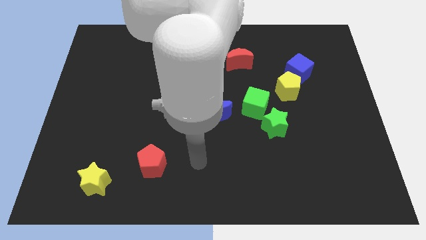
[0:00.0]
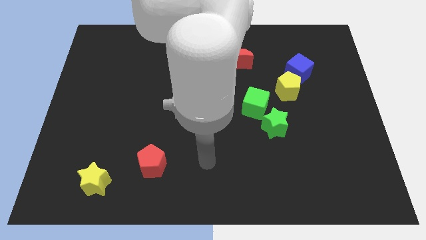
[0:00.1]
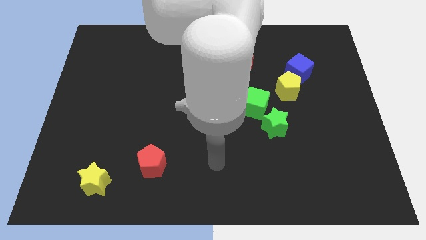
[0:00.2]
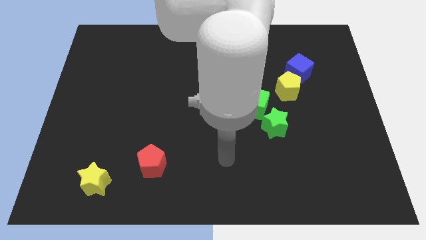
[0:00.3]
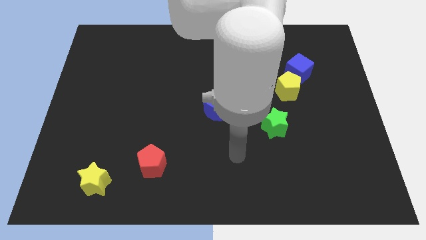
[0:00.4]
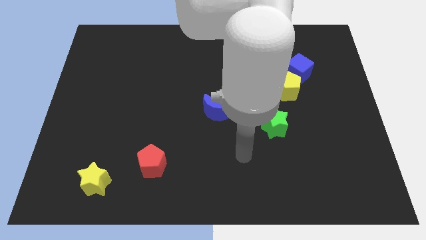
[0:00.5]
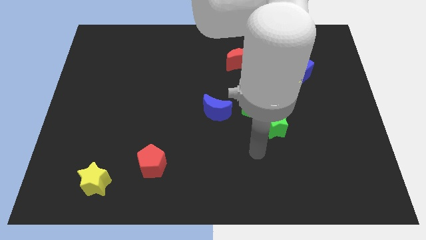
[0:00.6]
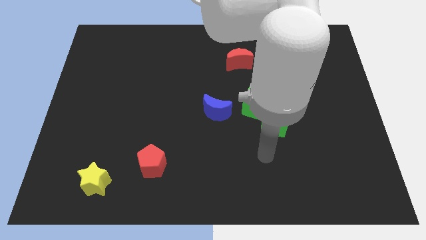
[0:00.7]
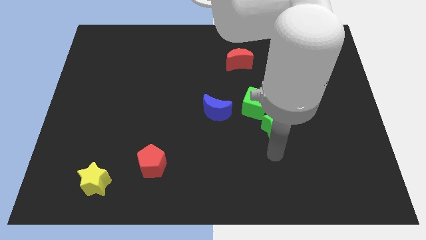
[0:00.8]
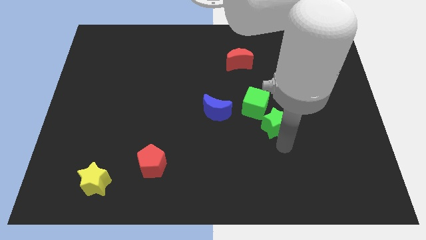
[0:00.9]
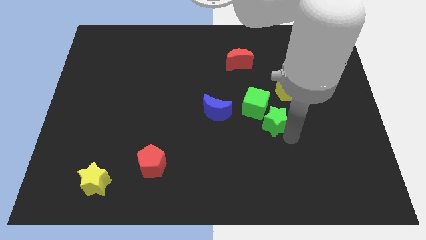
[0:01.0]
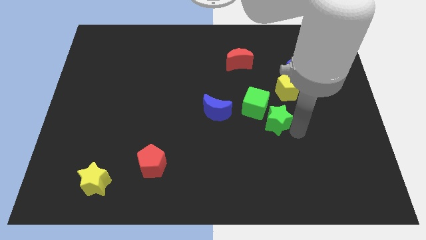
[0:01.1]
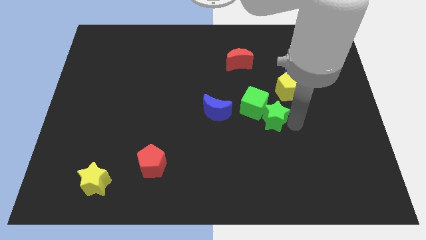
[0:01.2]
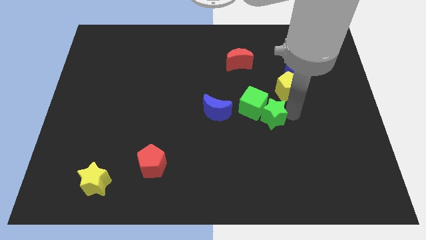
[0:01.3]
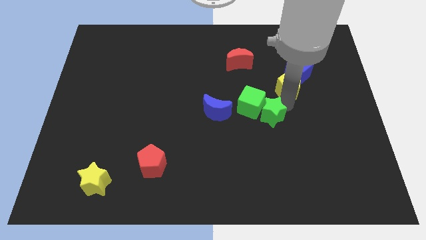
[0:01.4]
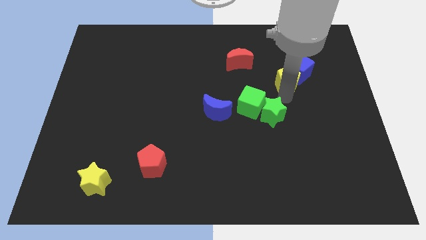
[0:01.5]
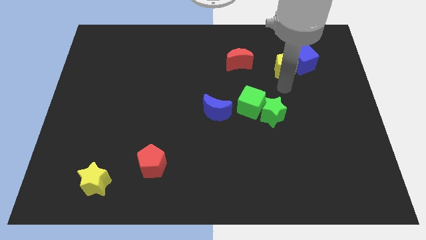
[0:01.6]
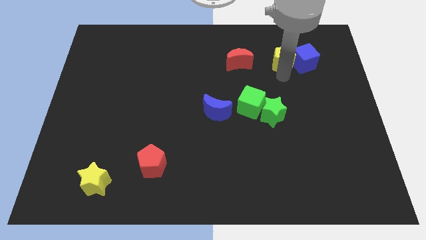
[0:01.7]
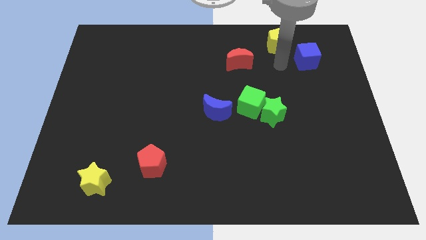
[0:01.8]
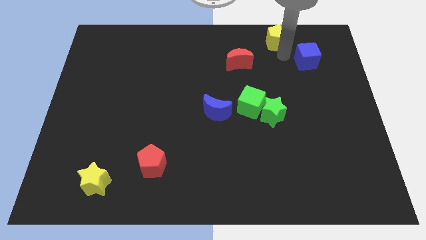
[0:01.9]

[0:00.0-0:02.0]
separate the blue cube from the yellow pentagon

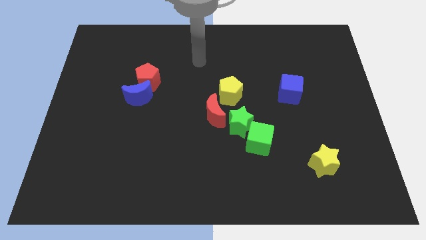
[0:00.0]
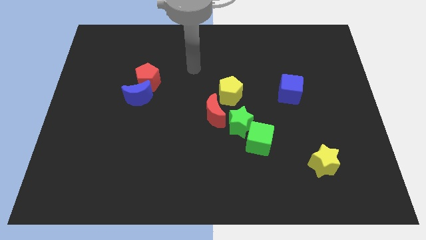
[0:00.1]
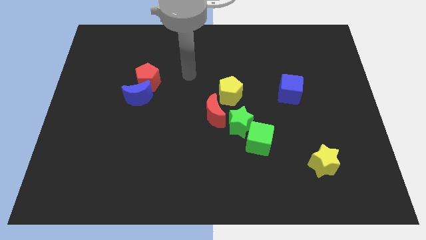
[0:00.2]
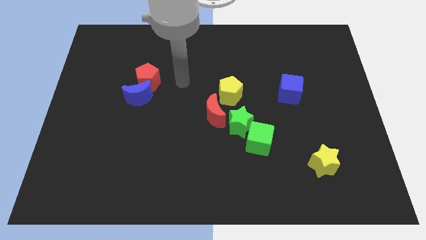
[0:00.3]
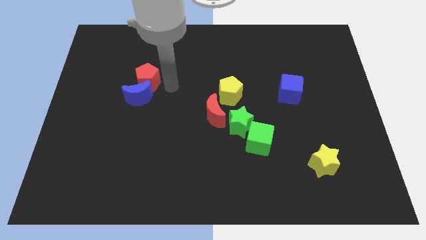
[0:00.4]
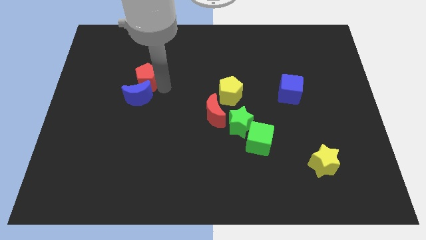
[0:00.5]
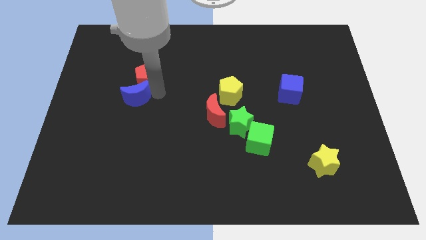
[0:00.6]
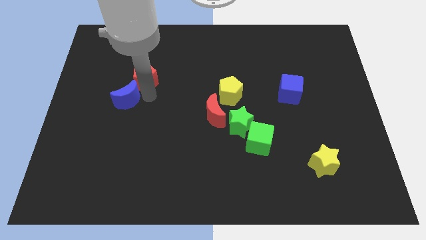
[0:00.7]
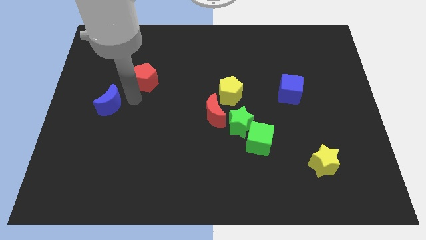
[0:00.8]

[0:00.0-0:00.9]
move the red pentagon away from the blue moon

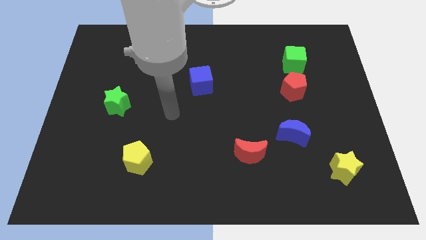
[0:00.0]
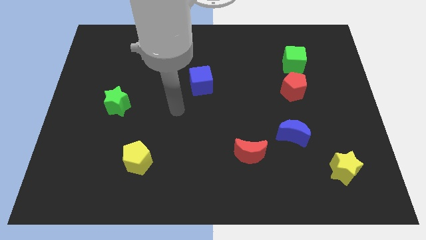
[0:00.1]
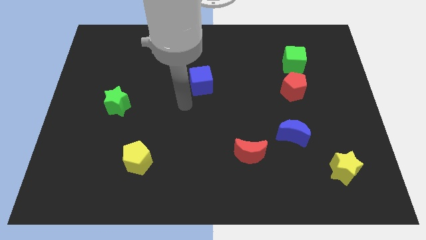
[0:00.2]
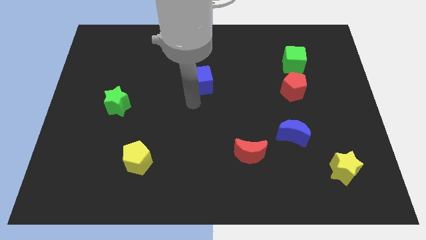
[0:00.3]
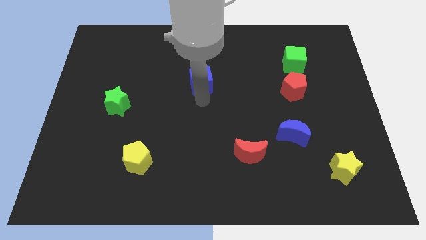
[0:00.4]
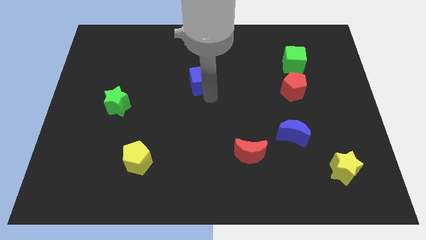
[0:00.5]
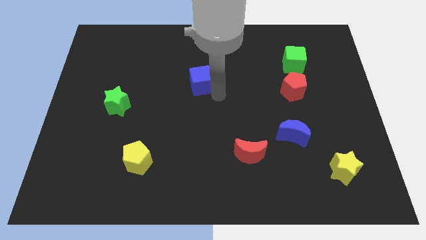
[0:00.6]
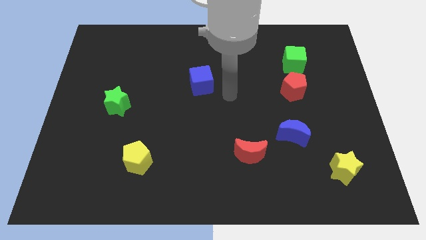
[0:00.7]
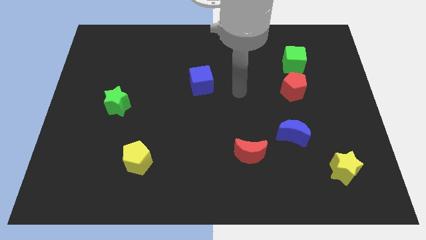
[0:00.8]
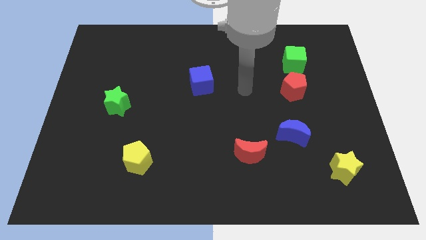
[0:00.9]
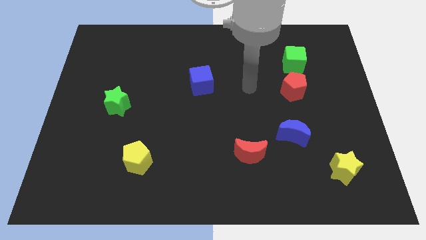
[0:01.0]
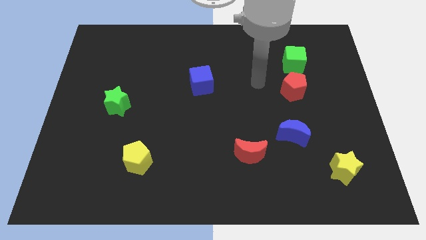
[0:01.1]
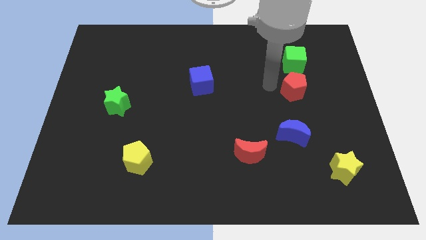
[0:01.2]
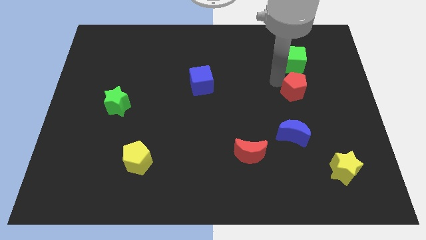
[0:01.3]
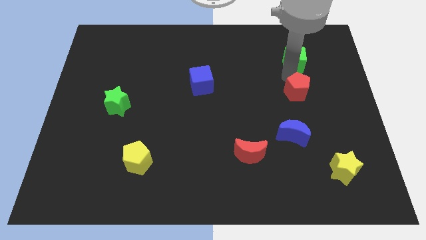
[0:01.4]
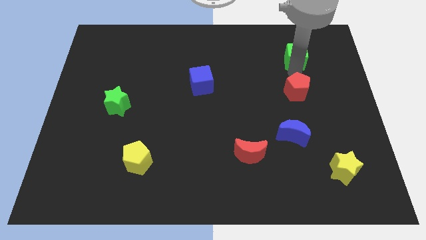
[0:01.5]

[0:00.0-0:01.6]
pull the red pentagon apart from the green cube

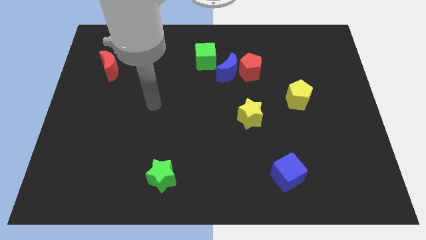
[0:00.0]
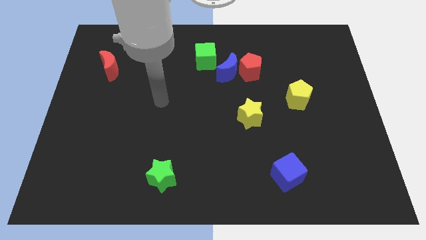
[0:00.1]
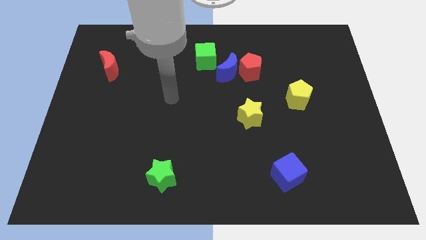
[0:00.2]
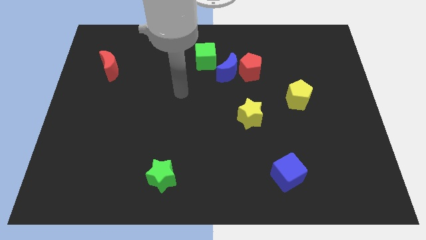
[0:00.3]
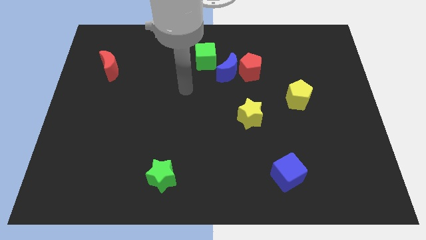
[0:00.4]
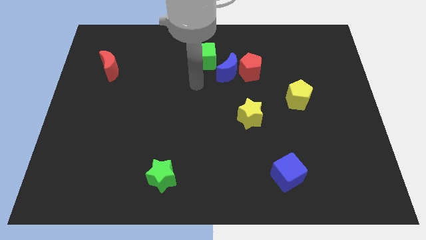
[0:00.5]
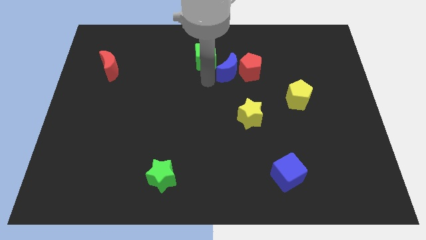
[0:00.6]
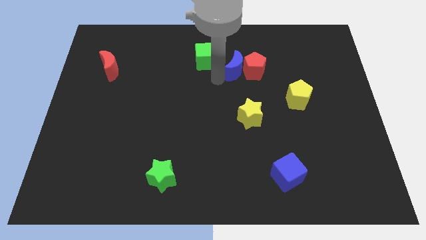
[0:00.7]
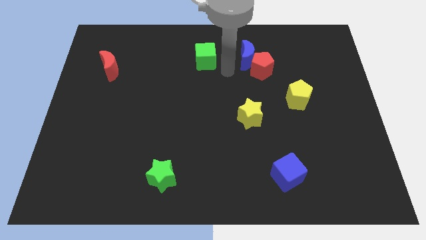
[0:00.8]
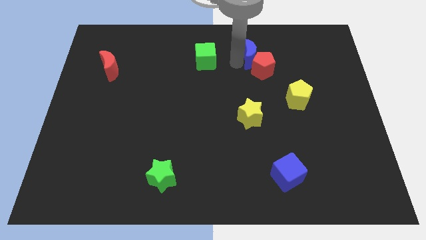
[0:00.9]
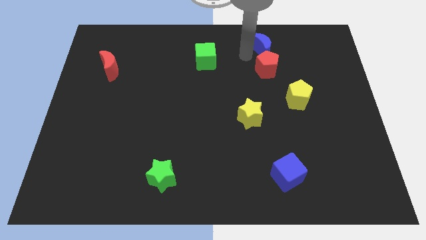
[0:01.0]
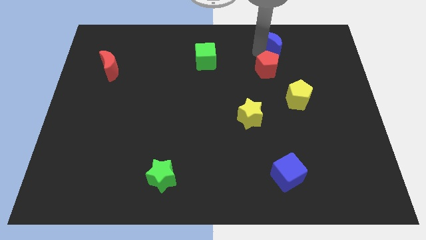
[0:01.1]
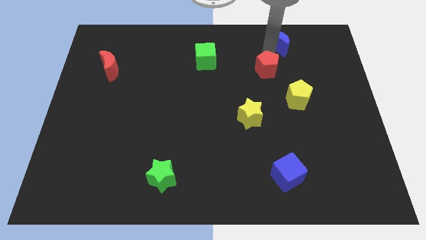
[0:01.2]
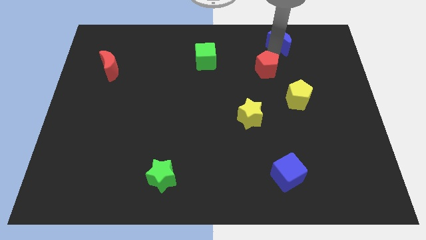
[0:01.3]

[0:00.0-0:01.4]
pull the red pentagon apart from the blue moon

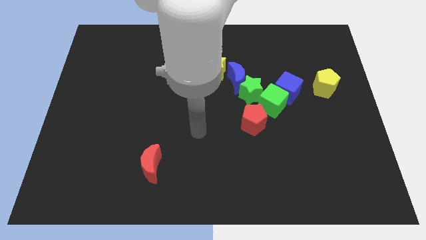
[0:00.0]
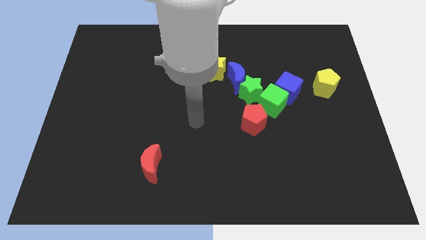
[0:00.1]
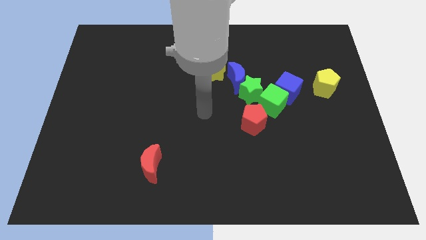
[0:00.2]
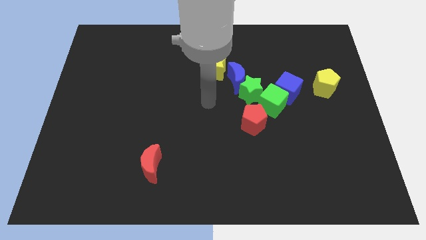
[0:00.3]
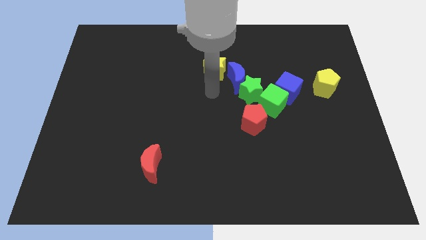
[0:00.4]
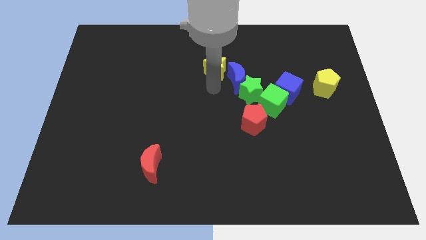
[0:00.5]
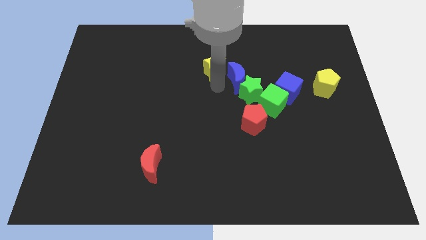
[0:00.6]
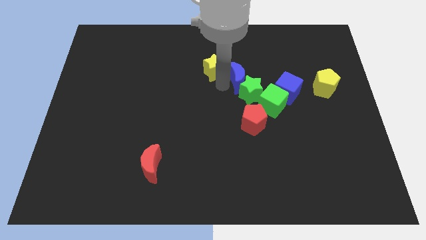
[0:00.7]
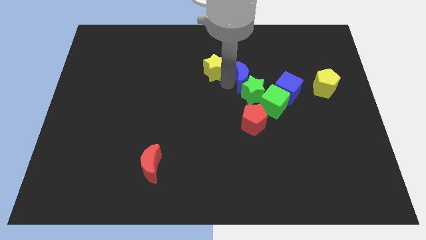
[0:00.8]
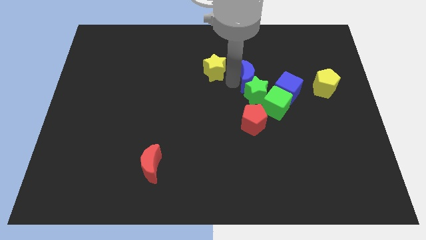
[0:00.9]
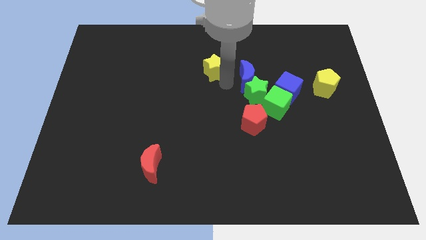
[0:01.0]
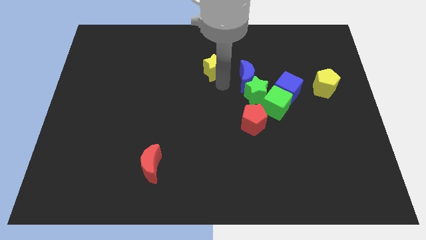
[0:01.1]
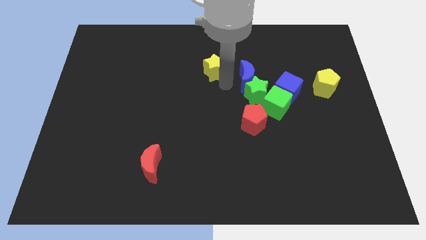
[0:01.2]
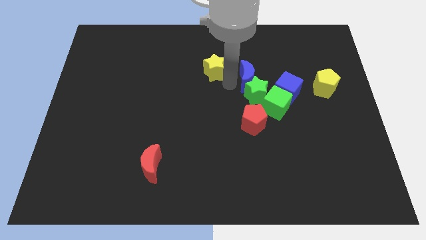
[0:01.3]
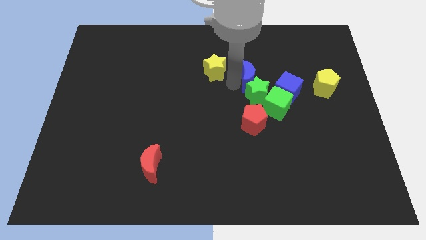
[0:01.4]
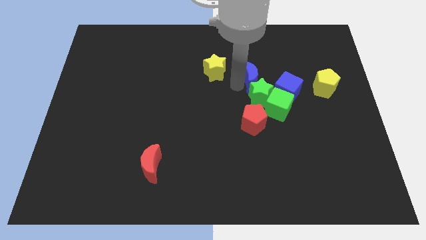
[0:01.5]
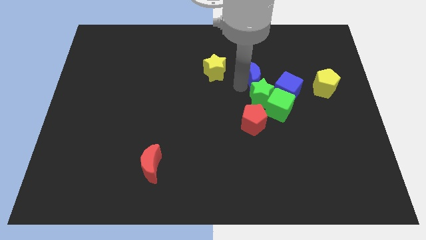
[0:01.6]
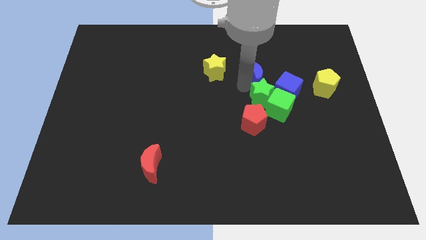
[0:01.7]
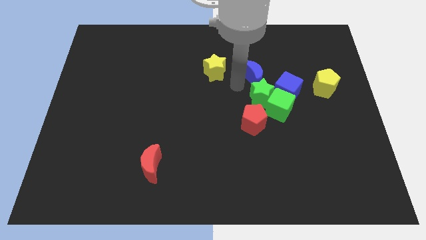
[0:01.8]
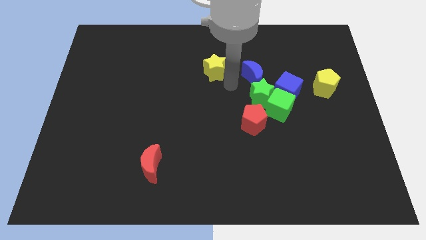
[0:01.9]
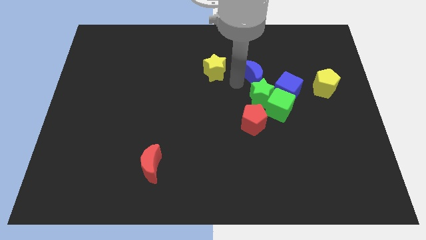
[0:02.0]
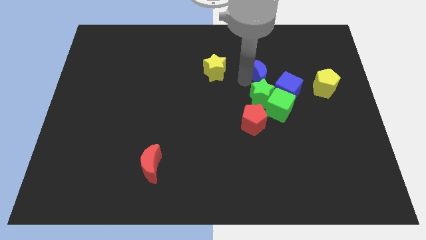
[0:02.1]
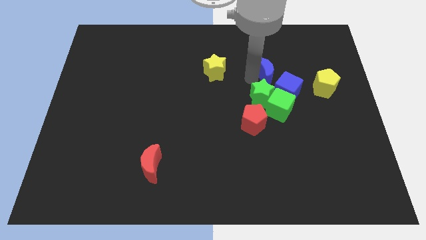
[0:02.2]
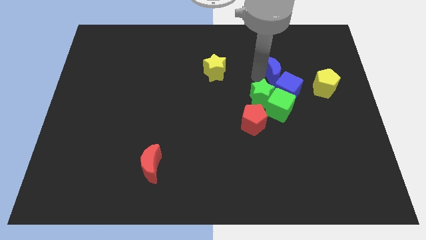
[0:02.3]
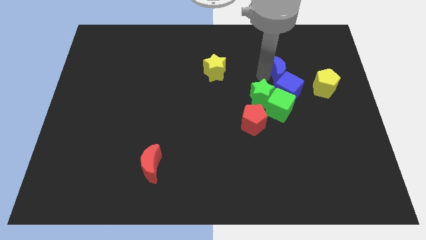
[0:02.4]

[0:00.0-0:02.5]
separate the blue moon from the green star and yellow star

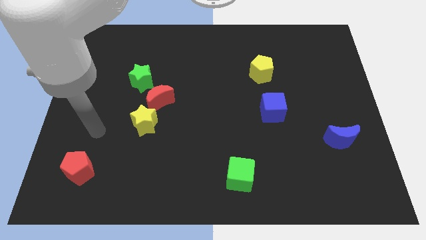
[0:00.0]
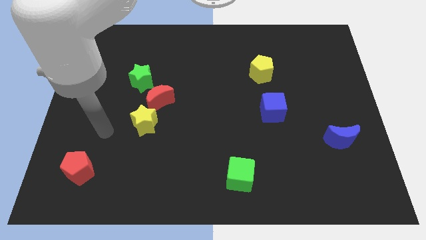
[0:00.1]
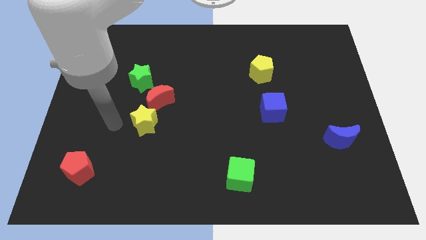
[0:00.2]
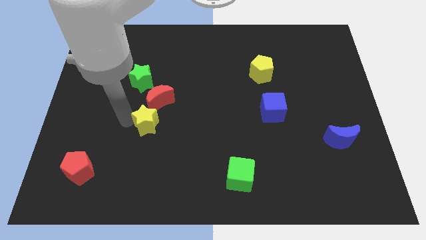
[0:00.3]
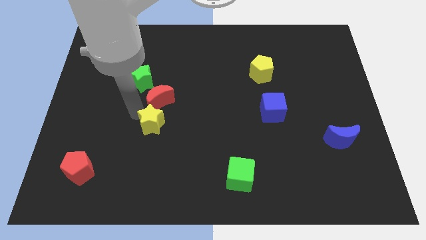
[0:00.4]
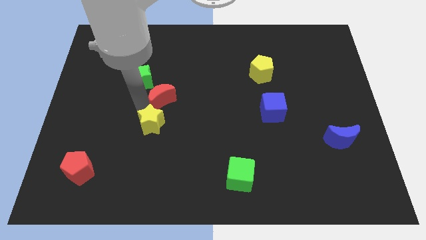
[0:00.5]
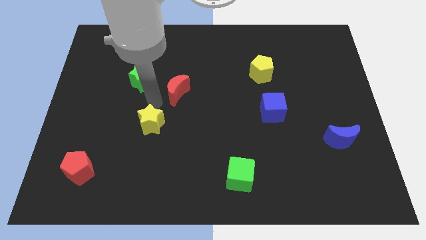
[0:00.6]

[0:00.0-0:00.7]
move the yellow star away from the red moon

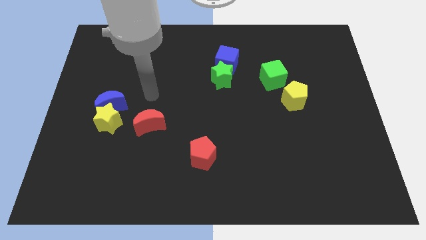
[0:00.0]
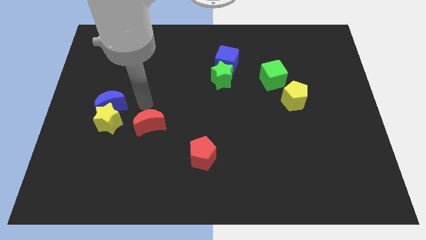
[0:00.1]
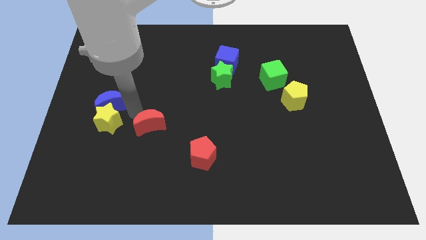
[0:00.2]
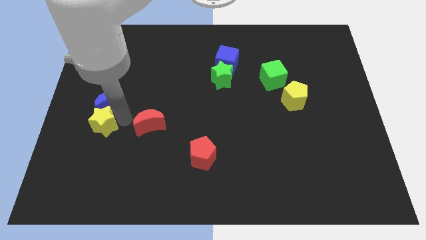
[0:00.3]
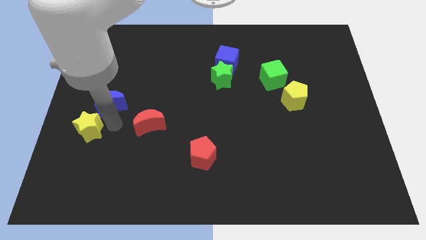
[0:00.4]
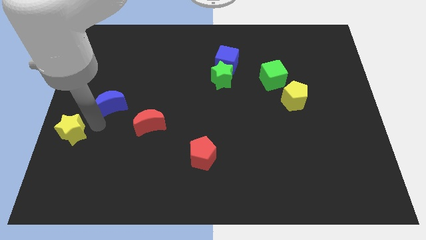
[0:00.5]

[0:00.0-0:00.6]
separate the blue moon from the yellow star
